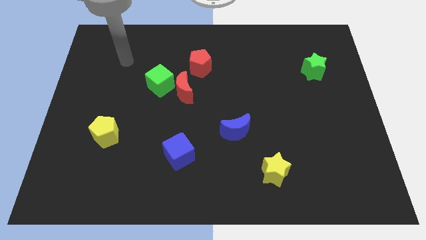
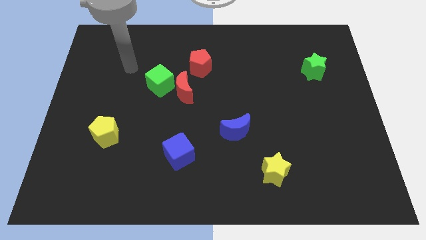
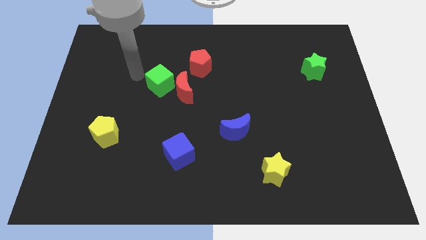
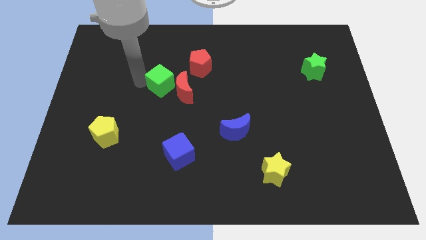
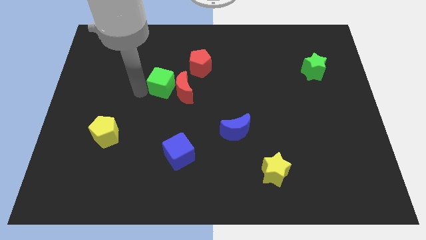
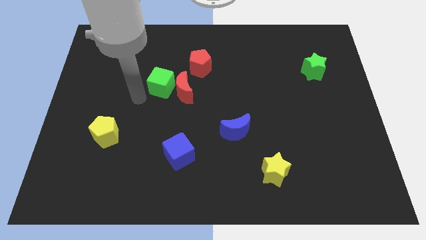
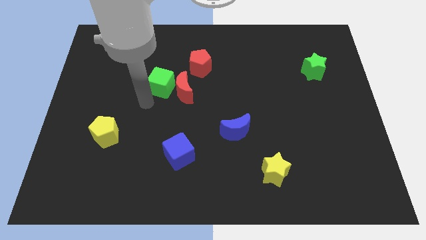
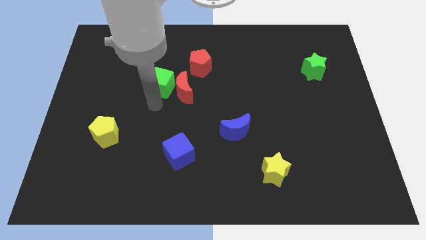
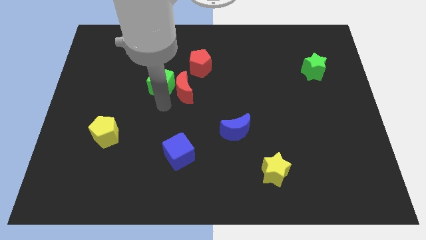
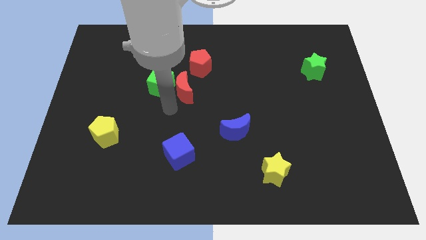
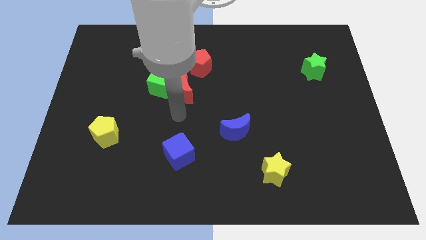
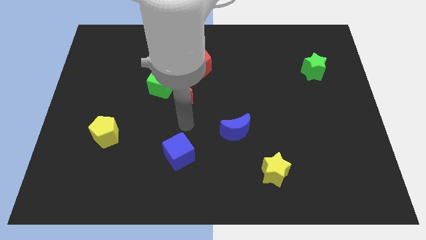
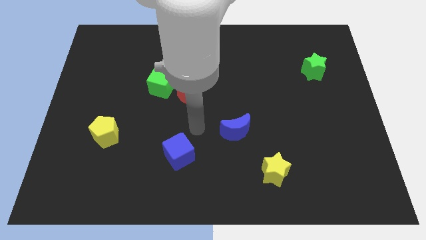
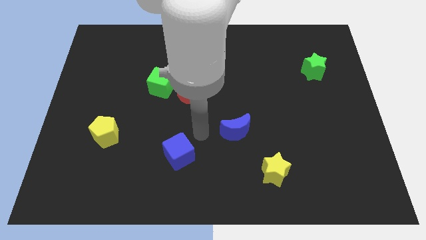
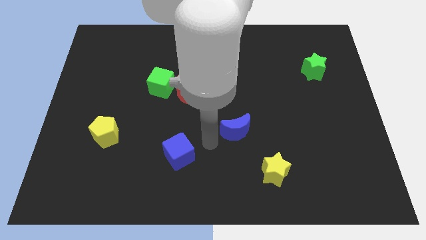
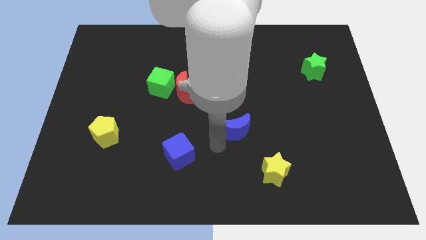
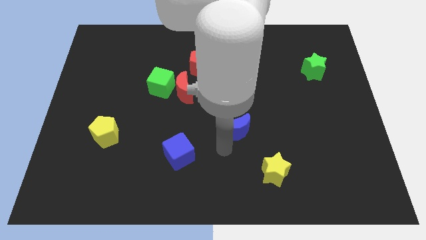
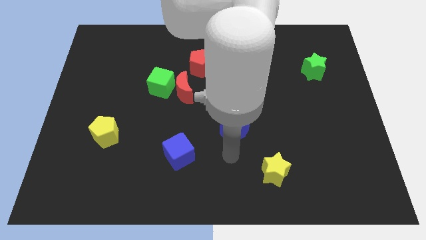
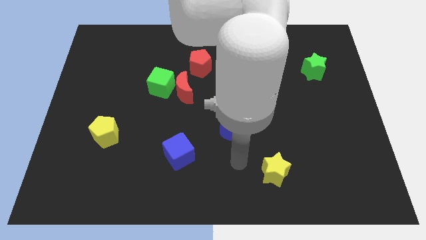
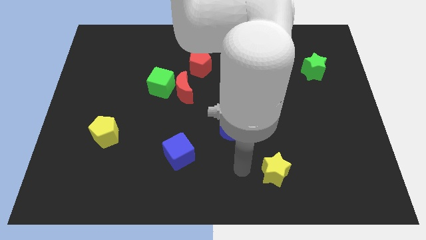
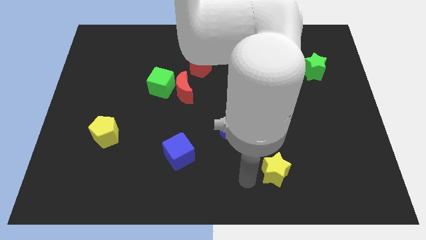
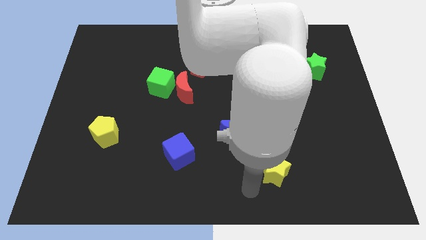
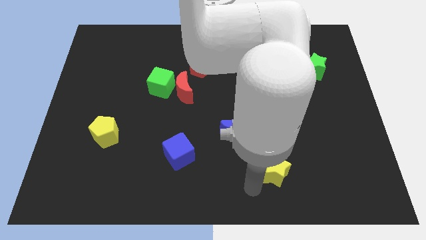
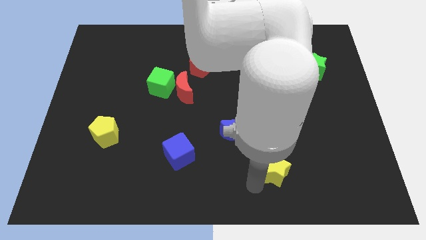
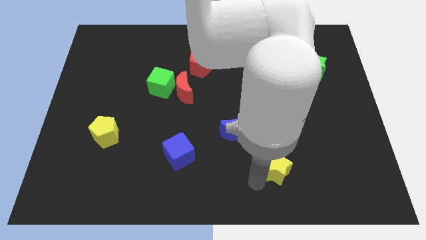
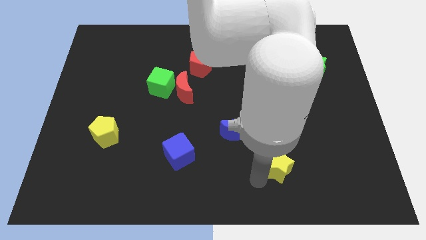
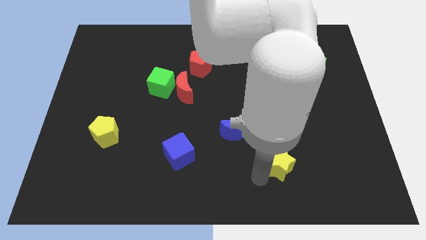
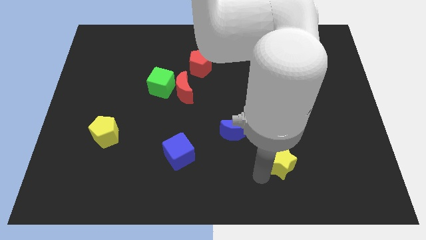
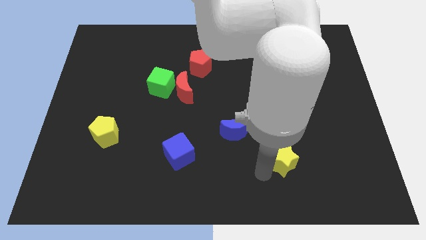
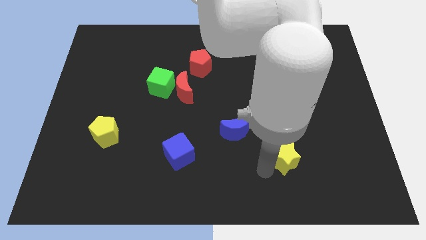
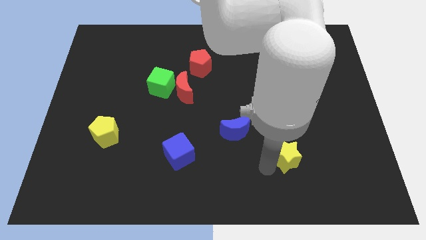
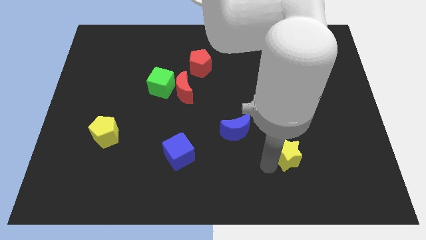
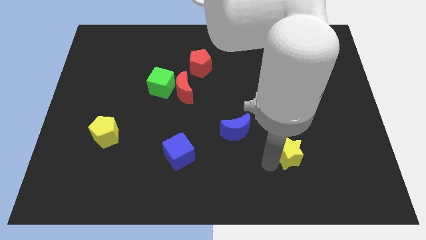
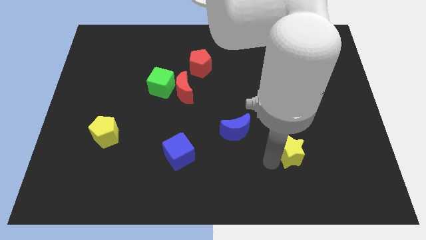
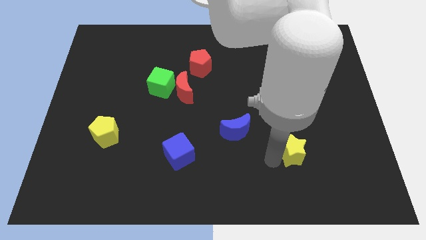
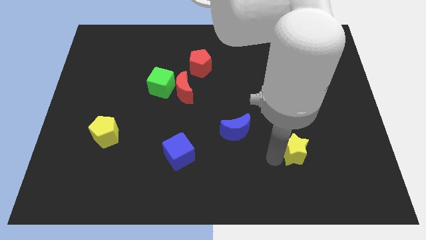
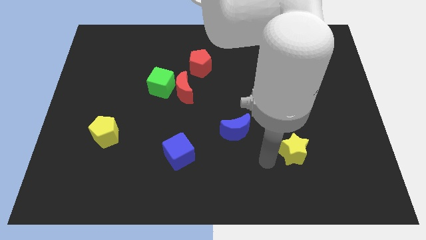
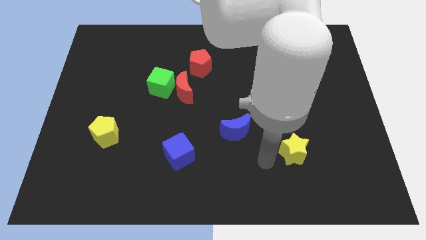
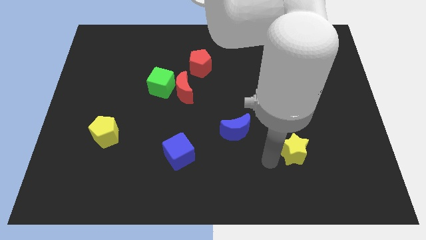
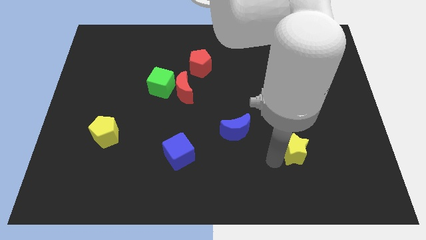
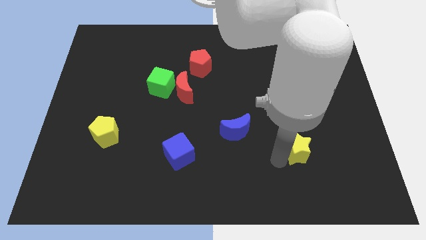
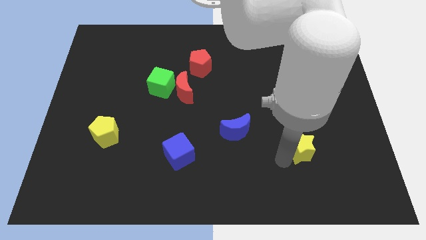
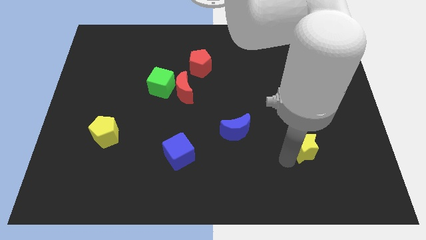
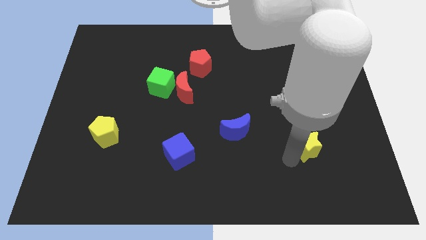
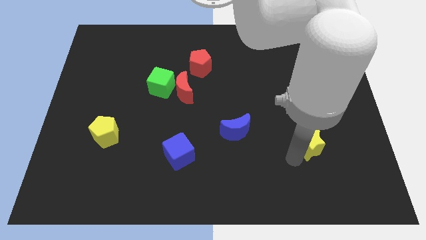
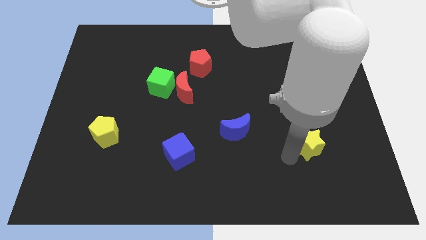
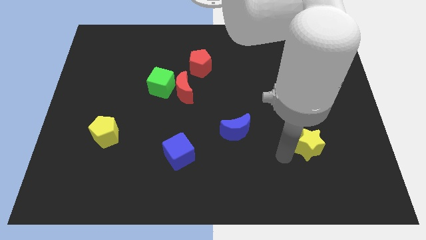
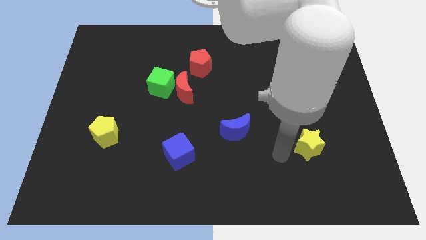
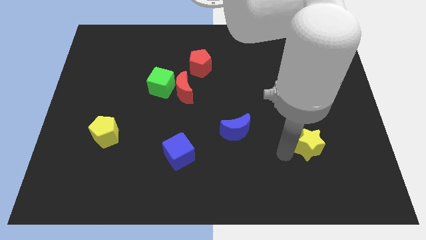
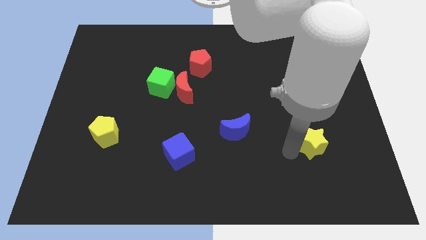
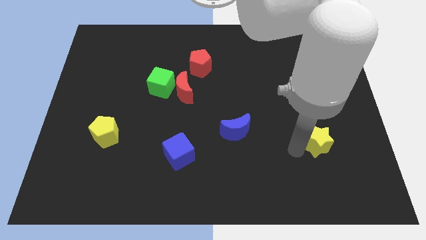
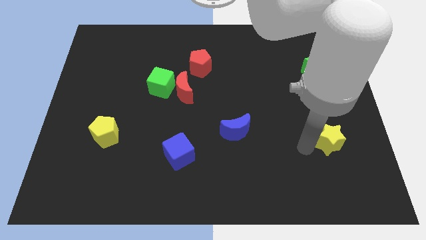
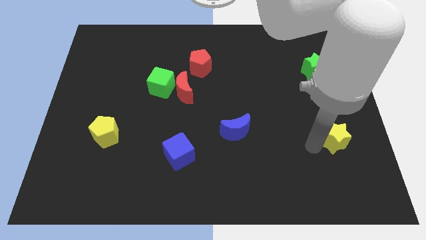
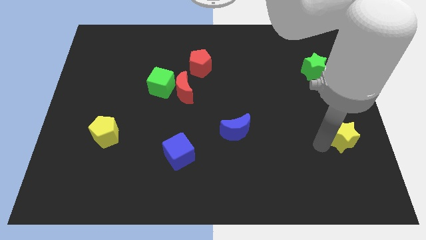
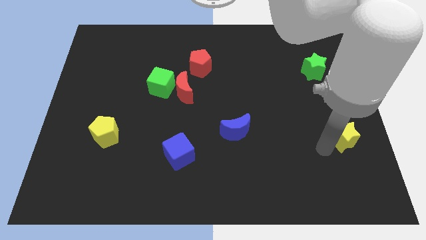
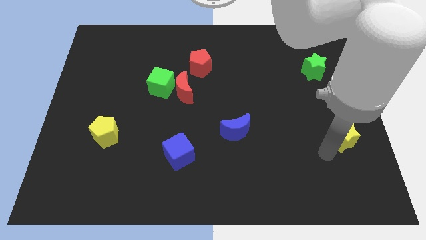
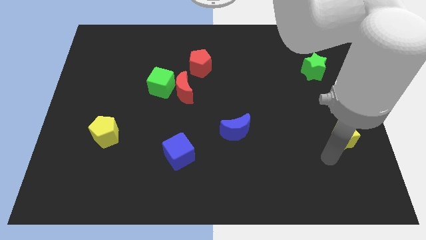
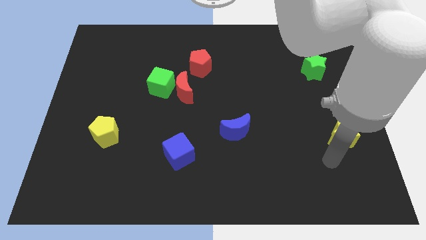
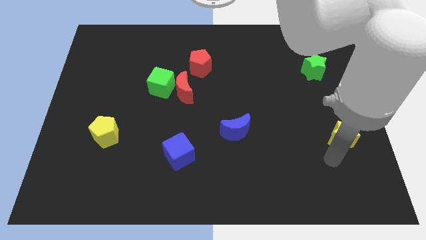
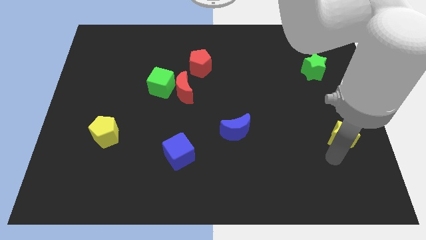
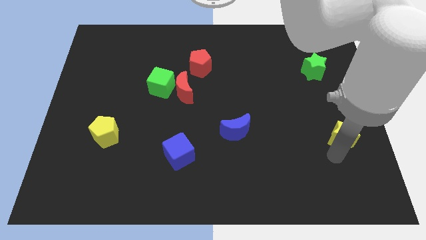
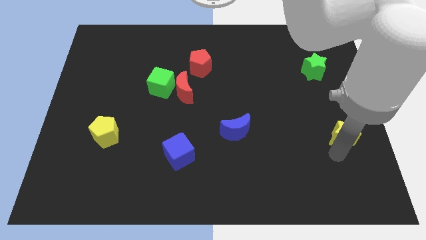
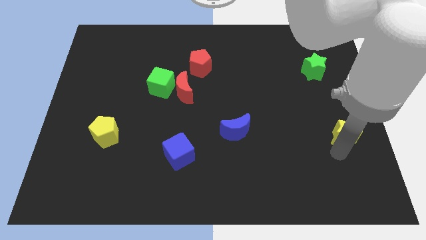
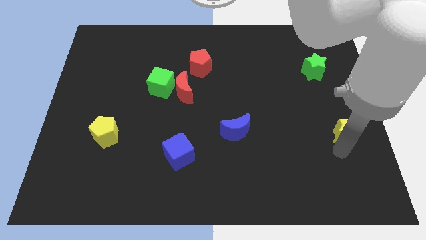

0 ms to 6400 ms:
move the yellow star to the center right
